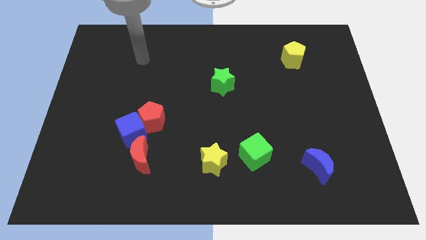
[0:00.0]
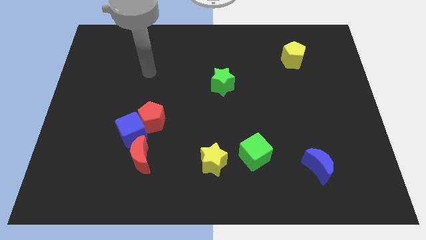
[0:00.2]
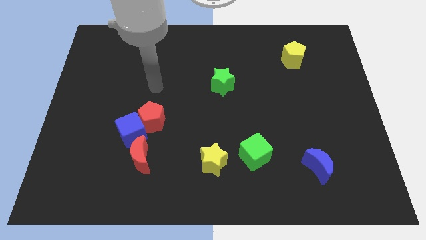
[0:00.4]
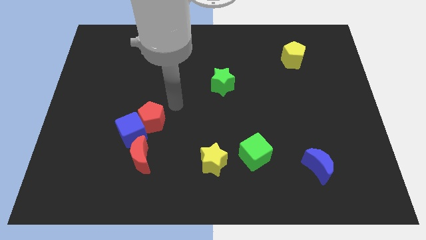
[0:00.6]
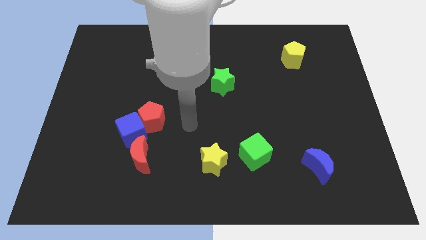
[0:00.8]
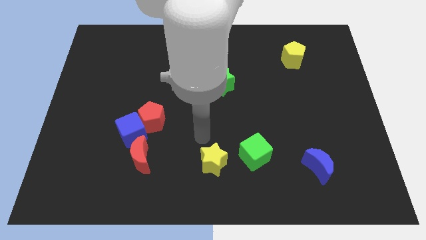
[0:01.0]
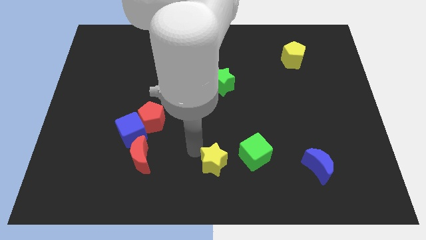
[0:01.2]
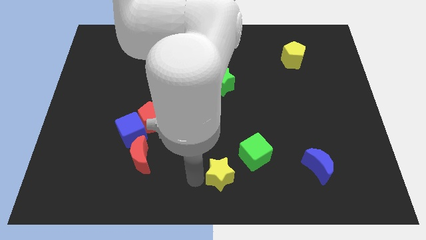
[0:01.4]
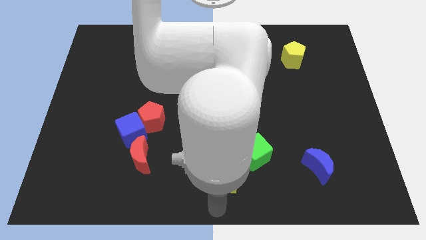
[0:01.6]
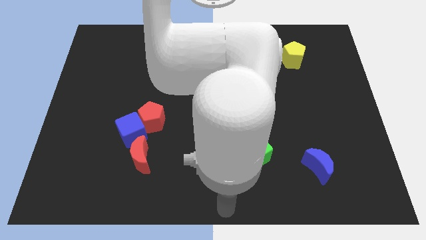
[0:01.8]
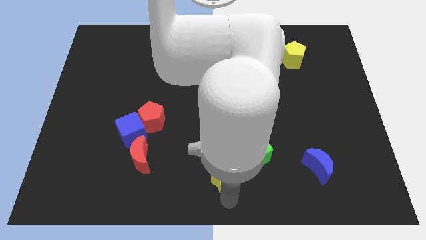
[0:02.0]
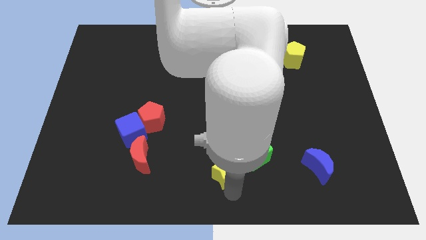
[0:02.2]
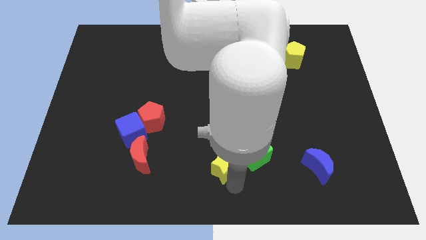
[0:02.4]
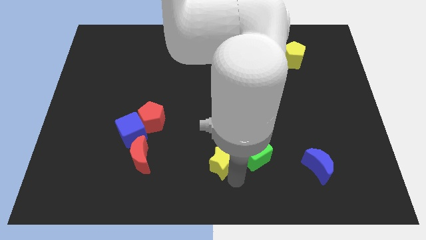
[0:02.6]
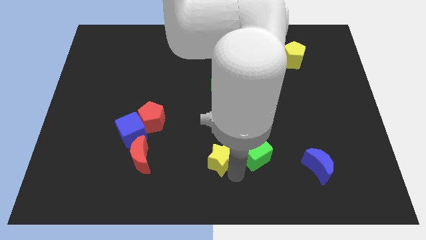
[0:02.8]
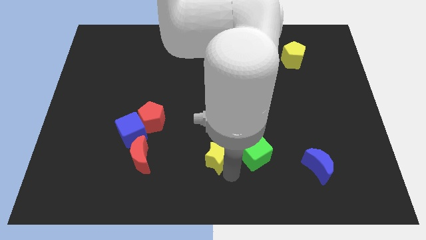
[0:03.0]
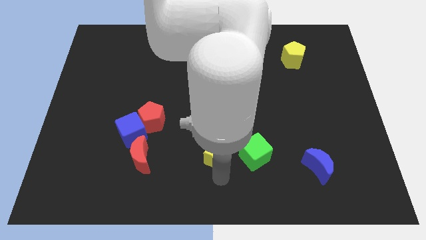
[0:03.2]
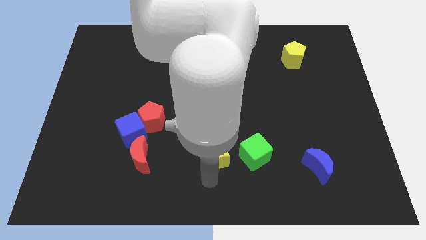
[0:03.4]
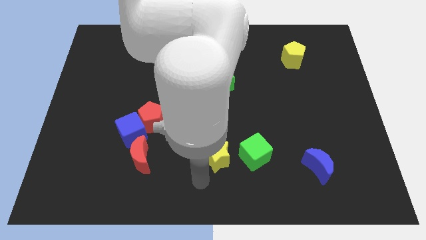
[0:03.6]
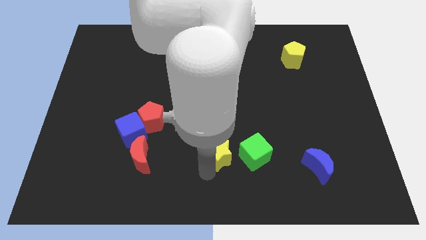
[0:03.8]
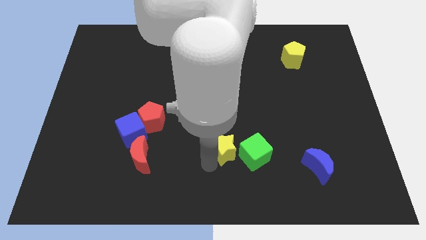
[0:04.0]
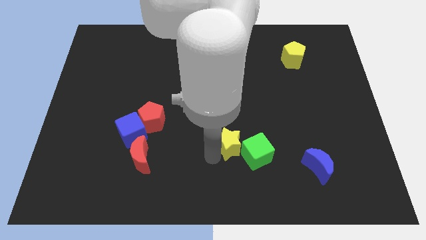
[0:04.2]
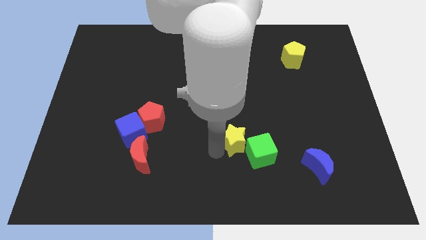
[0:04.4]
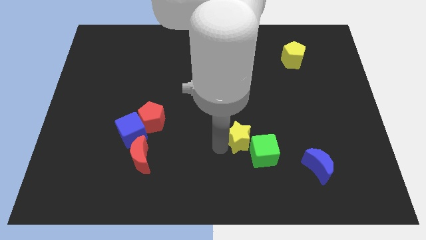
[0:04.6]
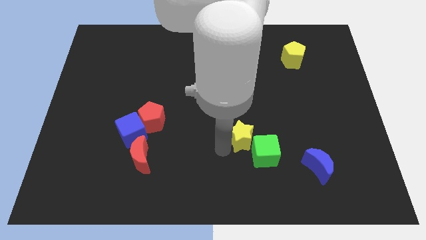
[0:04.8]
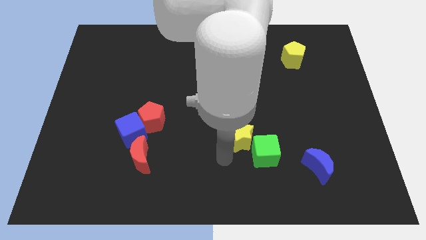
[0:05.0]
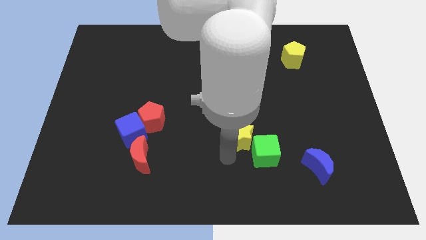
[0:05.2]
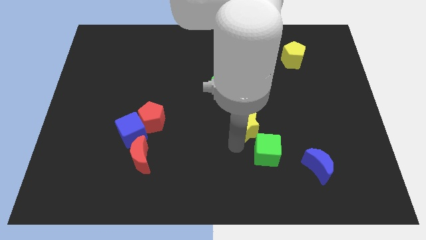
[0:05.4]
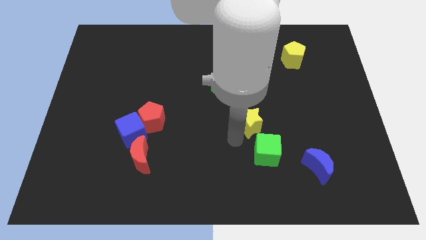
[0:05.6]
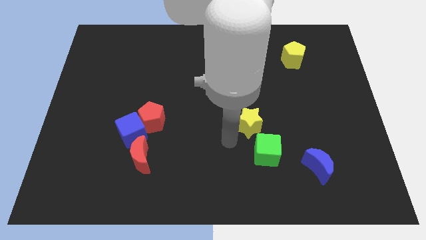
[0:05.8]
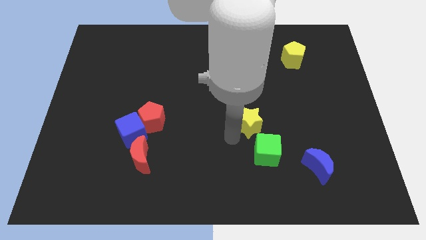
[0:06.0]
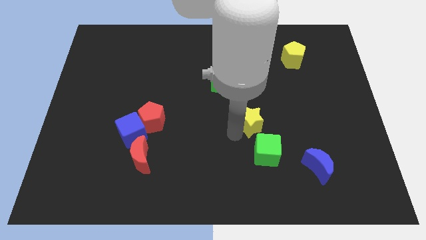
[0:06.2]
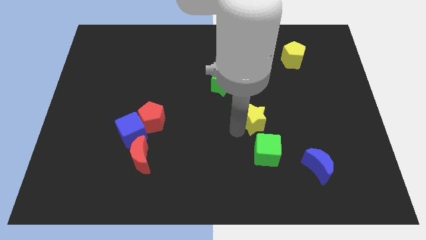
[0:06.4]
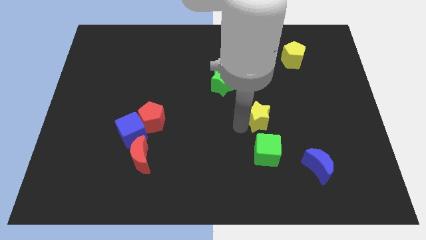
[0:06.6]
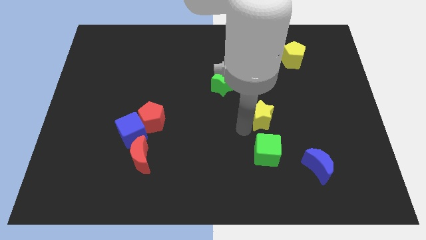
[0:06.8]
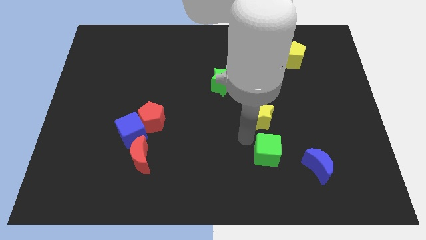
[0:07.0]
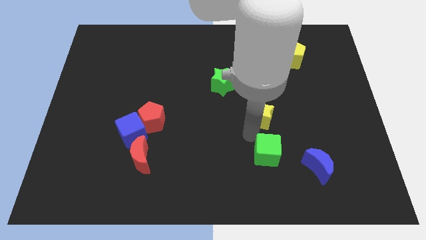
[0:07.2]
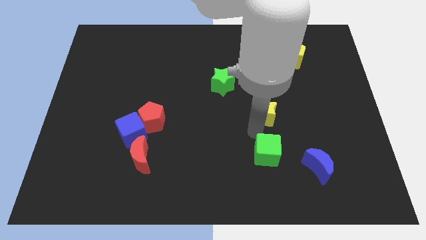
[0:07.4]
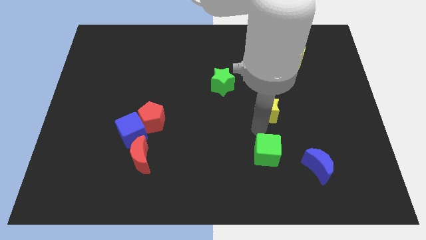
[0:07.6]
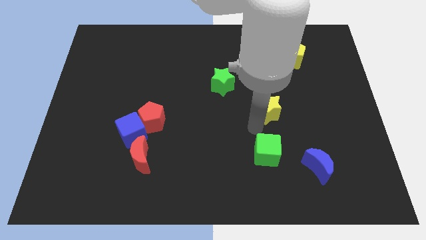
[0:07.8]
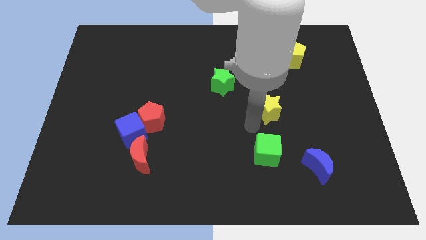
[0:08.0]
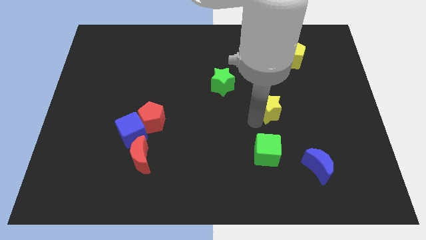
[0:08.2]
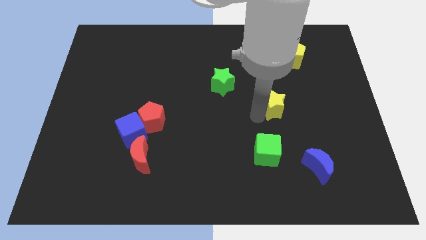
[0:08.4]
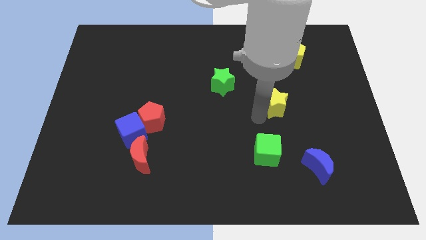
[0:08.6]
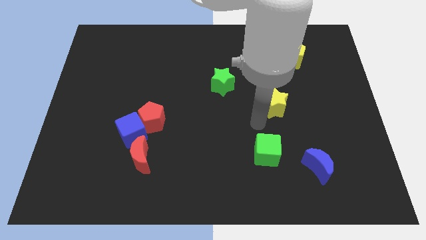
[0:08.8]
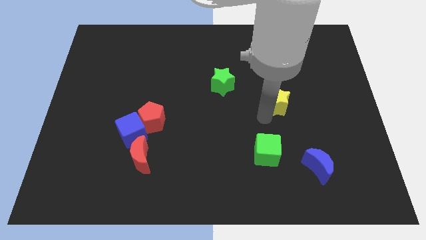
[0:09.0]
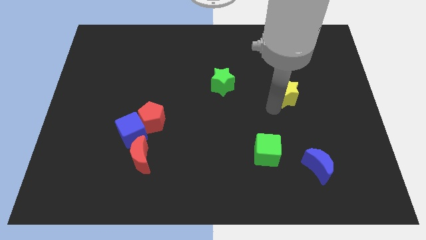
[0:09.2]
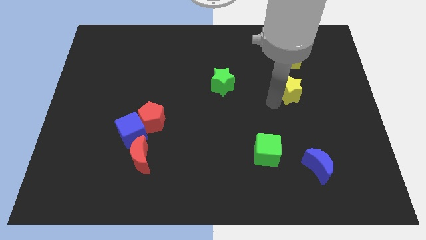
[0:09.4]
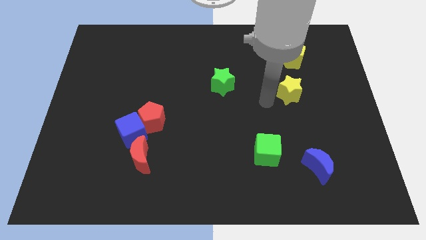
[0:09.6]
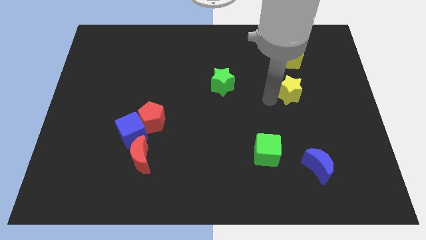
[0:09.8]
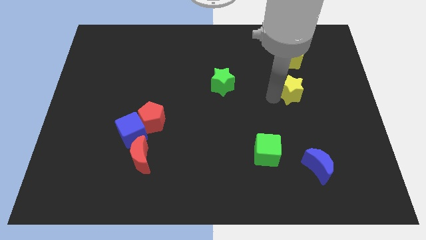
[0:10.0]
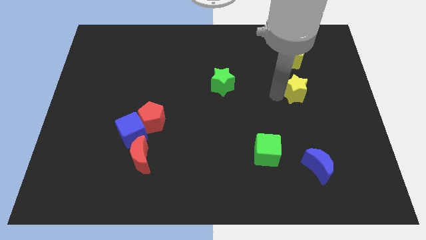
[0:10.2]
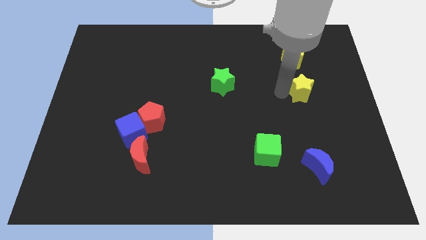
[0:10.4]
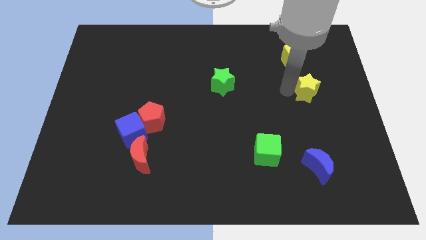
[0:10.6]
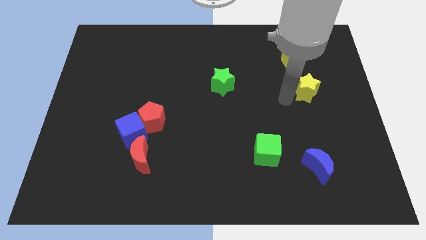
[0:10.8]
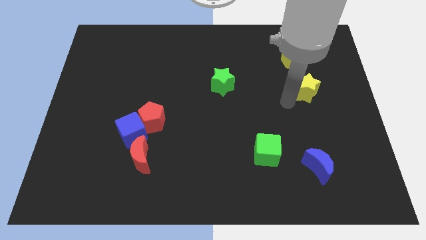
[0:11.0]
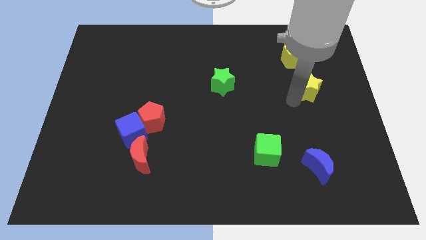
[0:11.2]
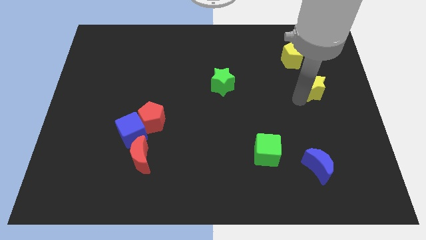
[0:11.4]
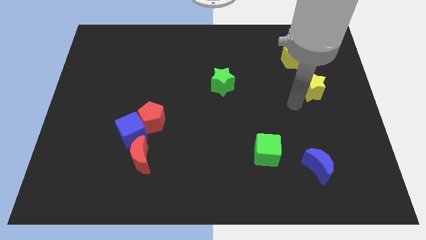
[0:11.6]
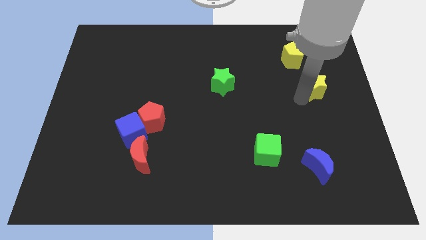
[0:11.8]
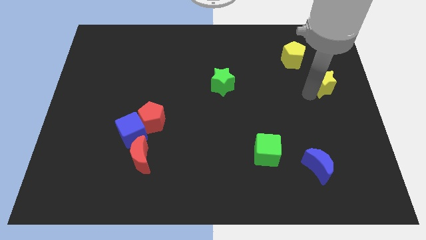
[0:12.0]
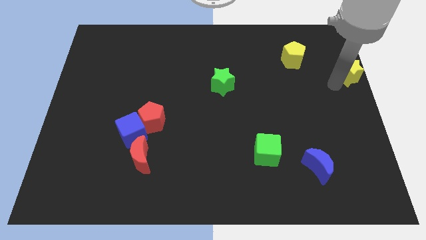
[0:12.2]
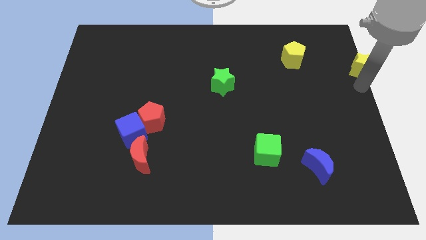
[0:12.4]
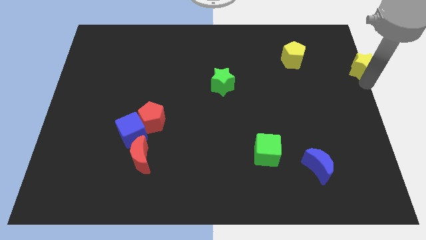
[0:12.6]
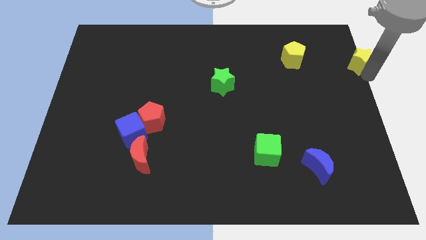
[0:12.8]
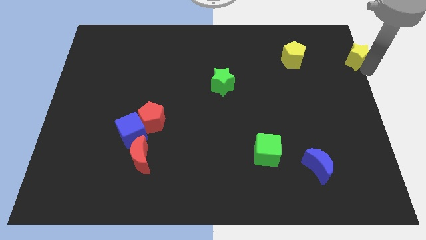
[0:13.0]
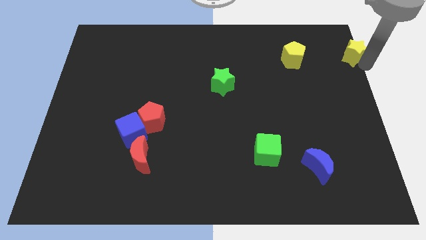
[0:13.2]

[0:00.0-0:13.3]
put the yellow star to the top right corner
